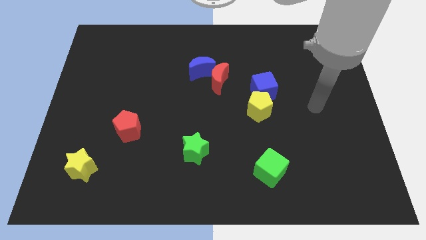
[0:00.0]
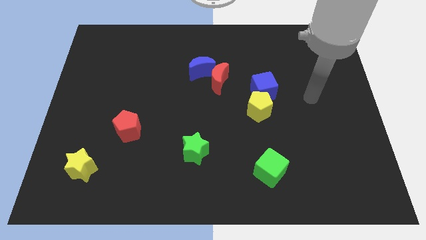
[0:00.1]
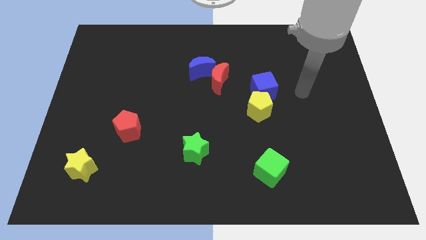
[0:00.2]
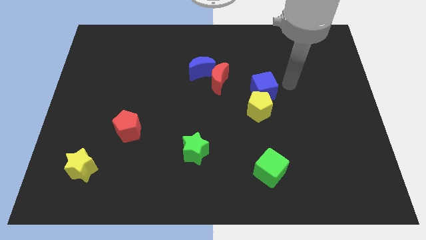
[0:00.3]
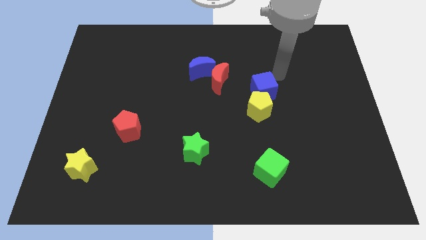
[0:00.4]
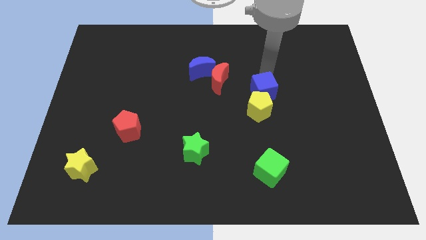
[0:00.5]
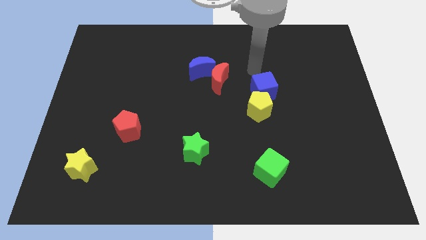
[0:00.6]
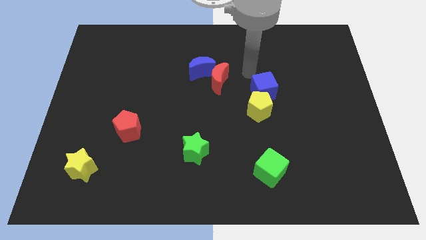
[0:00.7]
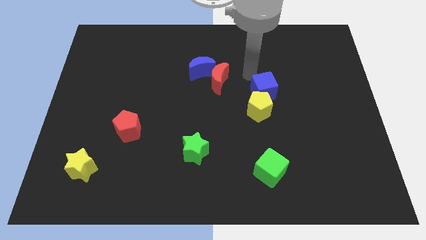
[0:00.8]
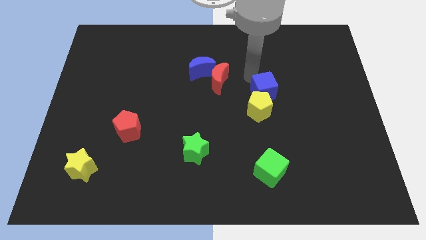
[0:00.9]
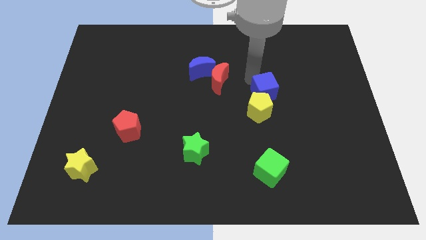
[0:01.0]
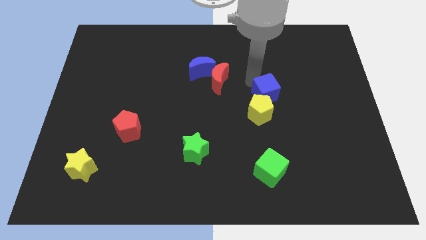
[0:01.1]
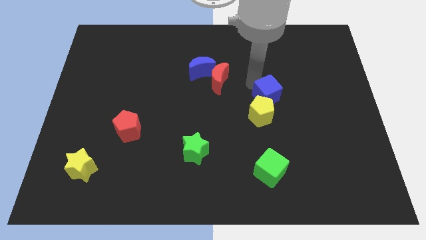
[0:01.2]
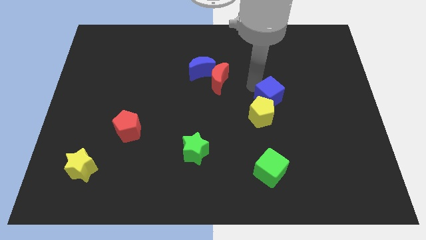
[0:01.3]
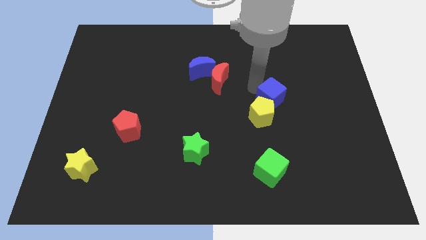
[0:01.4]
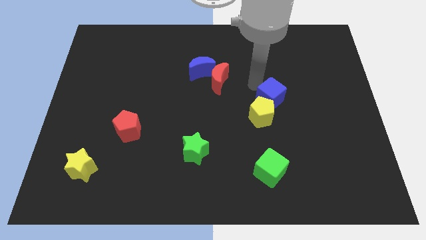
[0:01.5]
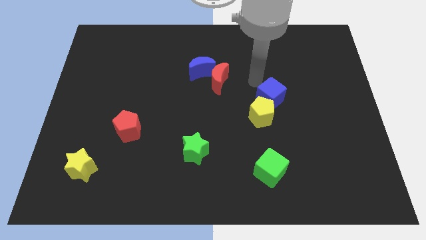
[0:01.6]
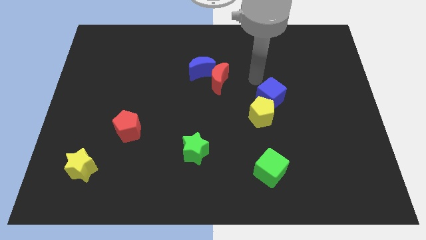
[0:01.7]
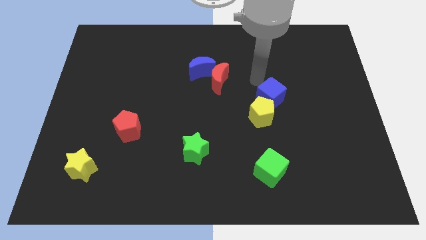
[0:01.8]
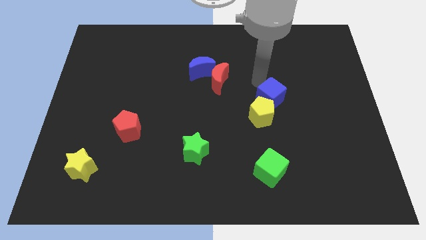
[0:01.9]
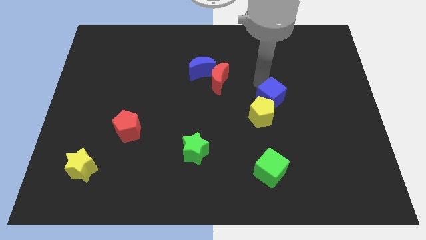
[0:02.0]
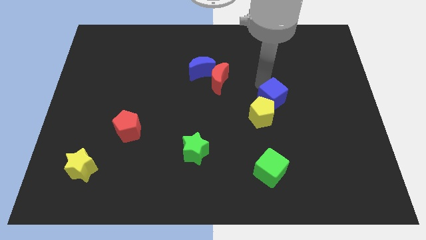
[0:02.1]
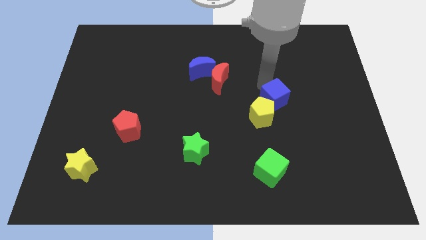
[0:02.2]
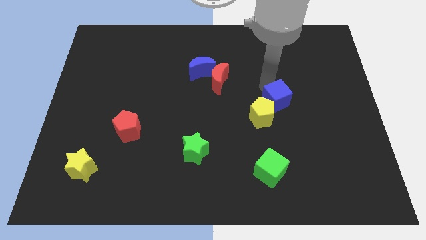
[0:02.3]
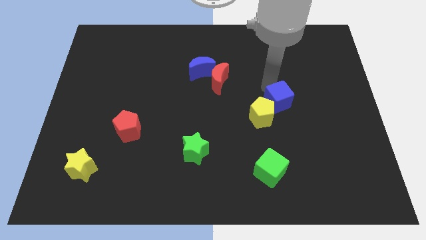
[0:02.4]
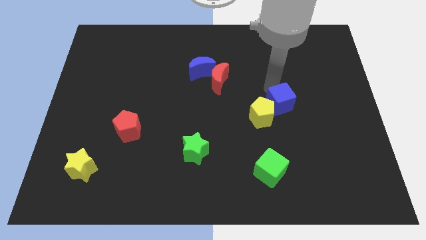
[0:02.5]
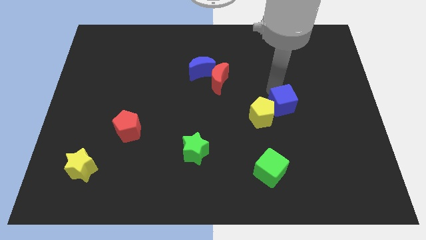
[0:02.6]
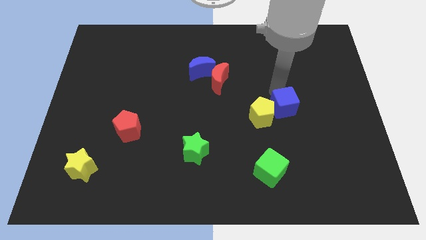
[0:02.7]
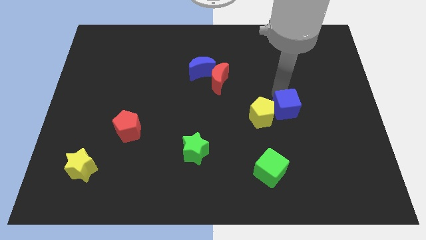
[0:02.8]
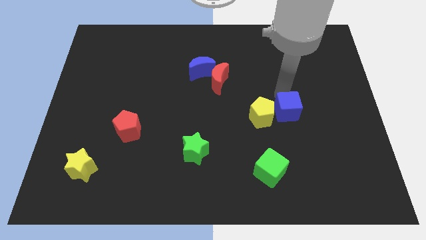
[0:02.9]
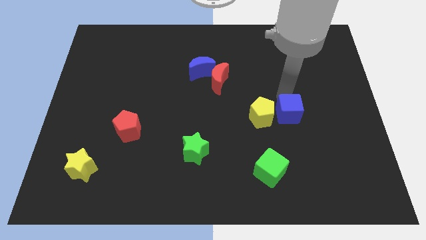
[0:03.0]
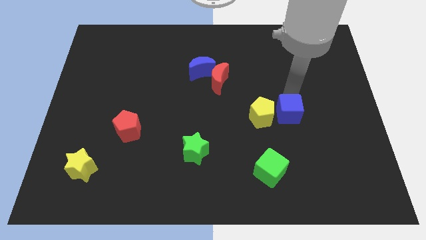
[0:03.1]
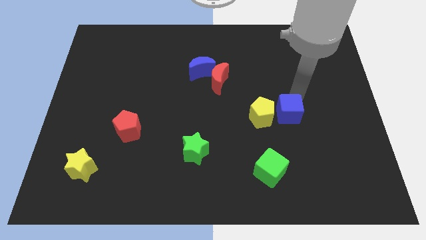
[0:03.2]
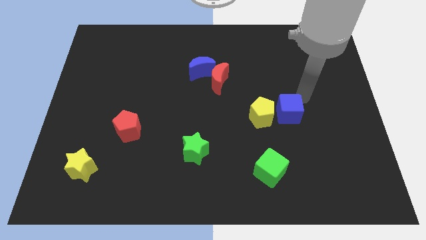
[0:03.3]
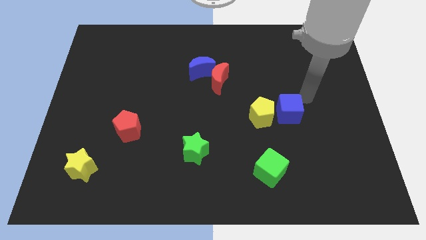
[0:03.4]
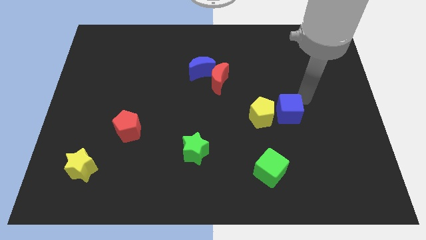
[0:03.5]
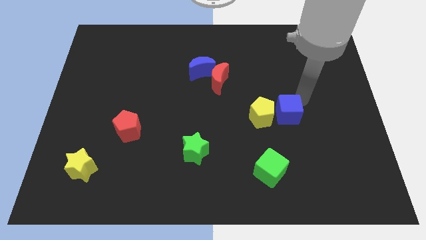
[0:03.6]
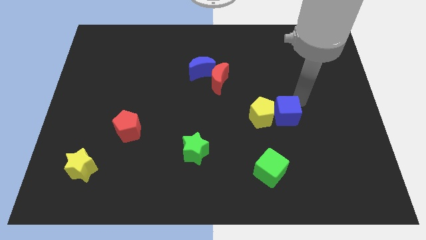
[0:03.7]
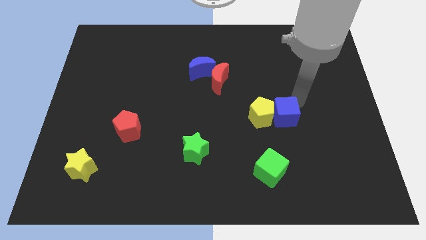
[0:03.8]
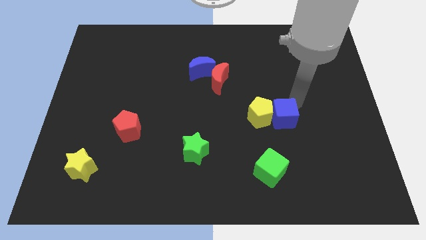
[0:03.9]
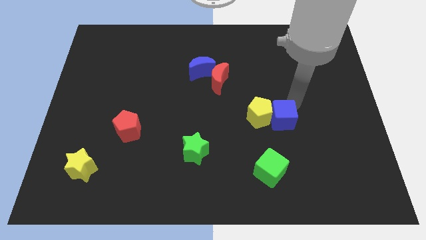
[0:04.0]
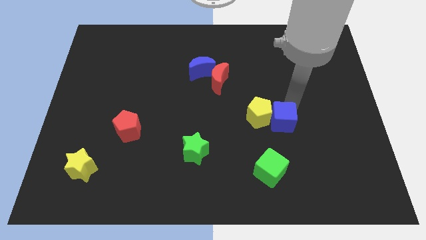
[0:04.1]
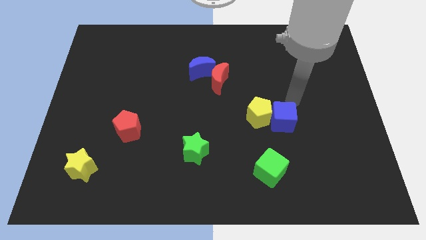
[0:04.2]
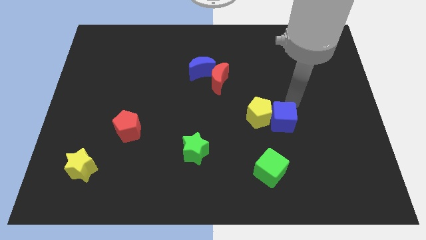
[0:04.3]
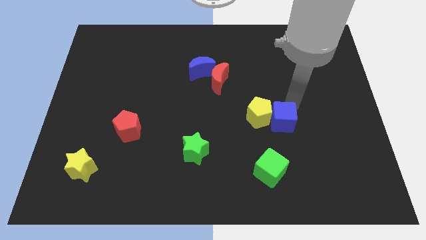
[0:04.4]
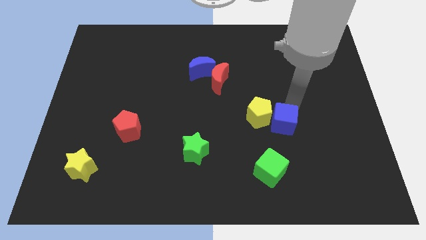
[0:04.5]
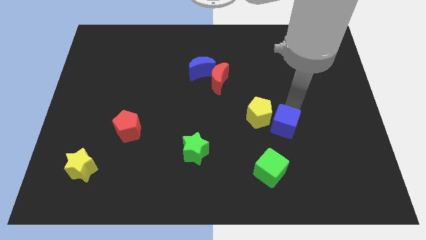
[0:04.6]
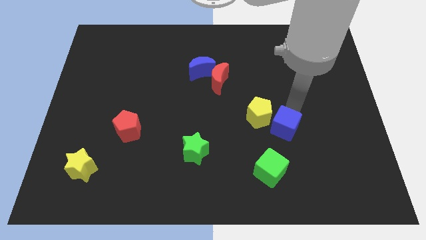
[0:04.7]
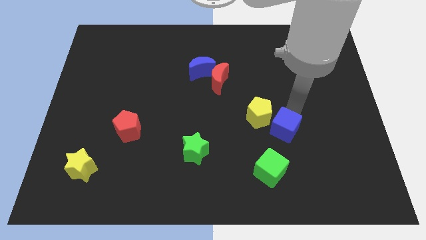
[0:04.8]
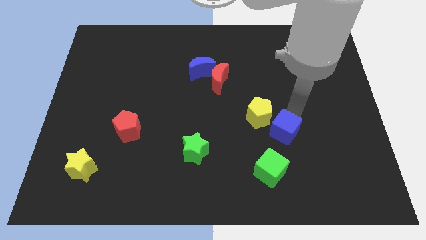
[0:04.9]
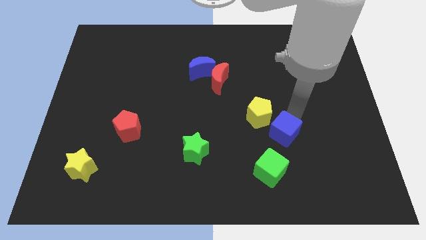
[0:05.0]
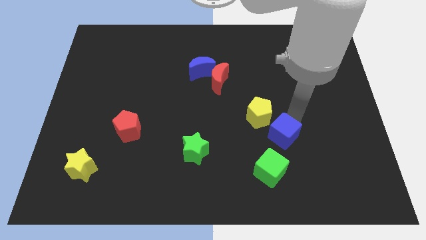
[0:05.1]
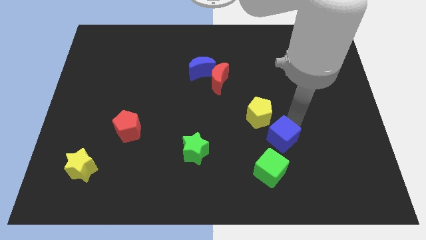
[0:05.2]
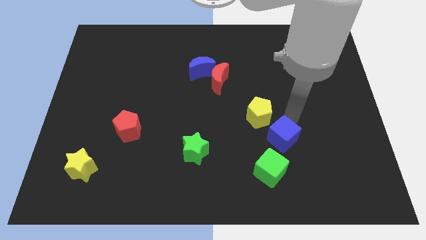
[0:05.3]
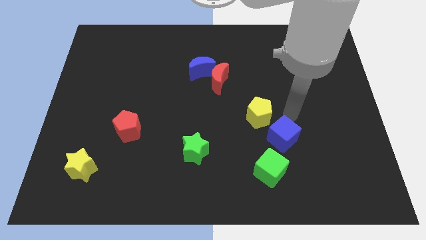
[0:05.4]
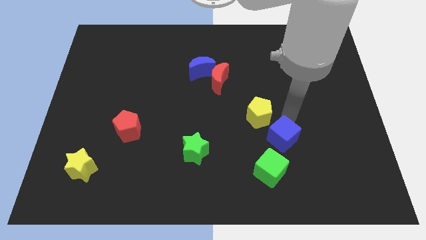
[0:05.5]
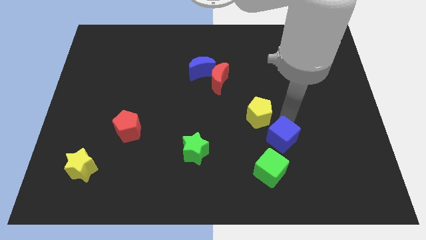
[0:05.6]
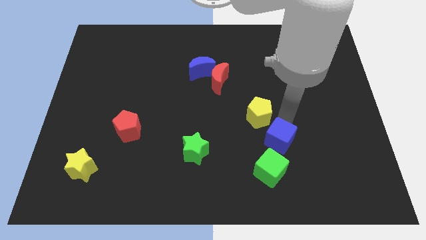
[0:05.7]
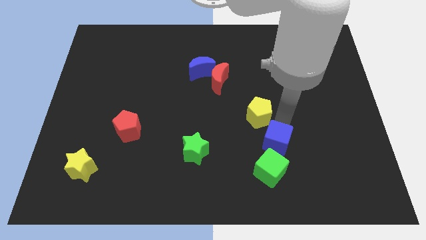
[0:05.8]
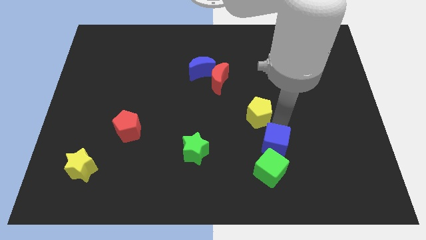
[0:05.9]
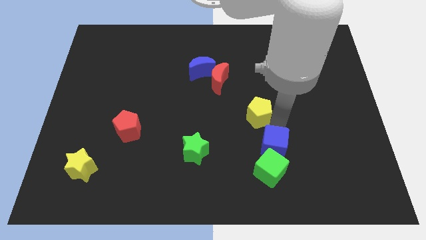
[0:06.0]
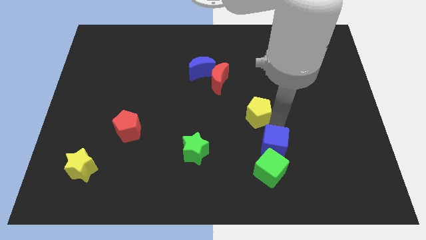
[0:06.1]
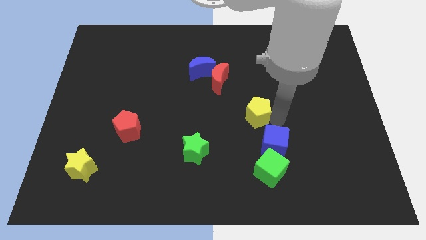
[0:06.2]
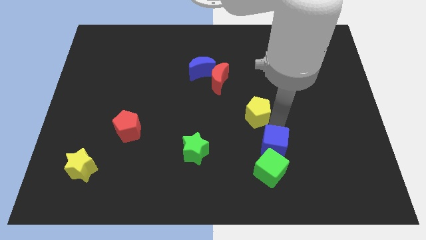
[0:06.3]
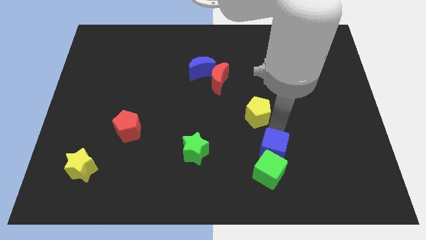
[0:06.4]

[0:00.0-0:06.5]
move the blue cube next to the green cube
